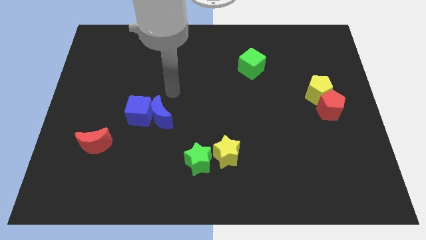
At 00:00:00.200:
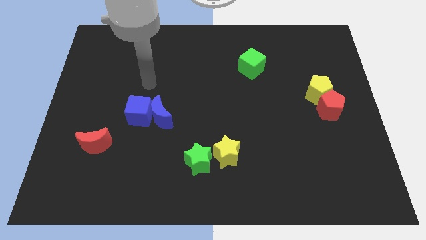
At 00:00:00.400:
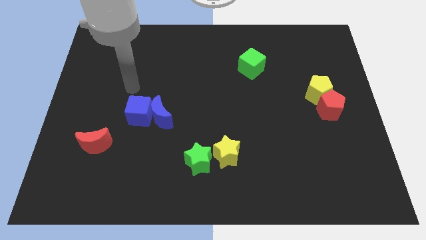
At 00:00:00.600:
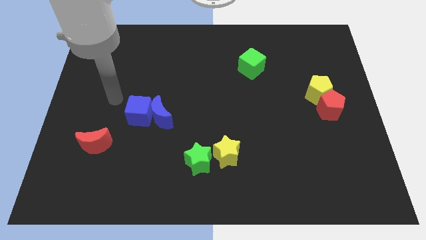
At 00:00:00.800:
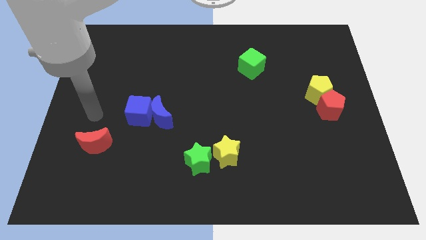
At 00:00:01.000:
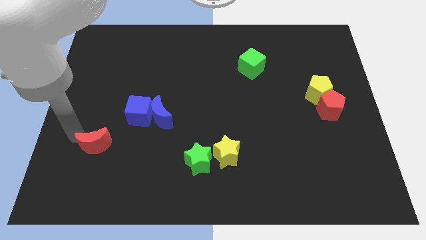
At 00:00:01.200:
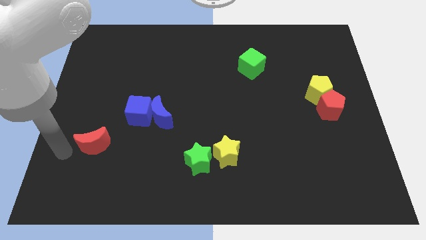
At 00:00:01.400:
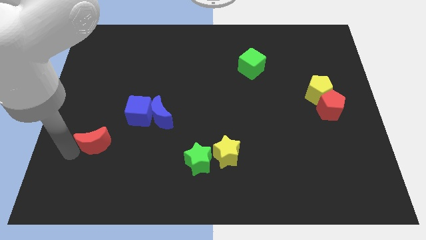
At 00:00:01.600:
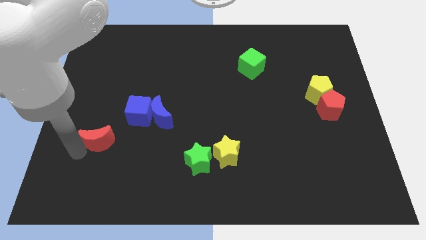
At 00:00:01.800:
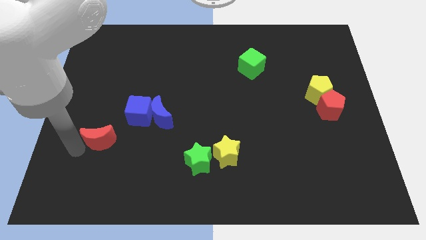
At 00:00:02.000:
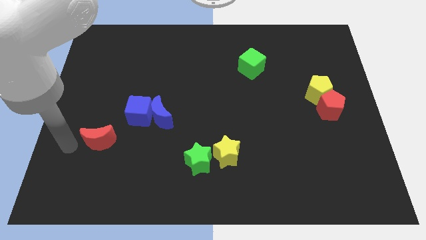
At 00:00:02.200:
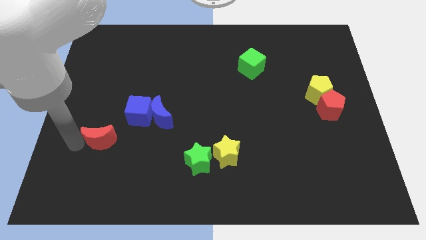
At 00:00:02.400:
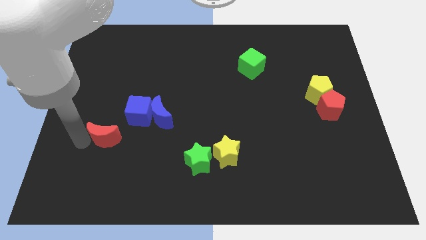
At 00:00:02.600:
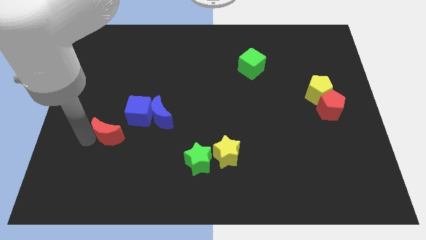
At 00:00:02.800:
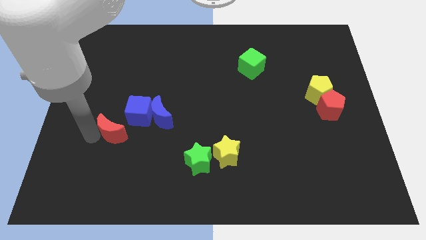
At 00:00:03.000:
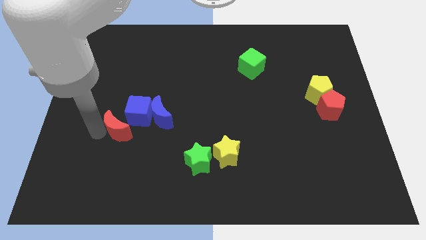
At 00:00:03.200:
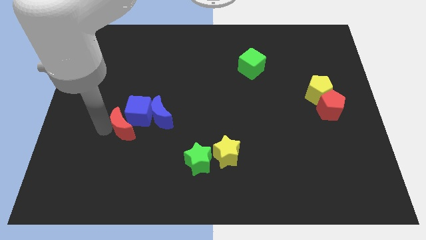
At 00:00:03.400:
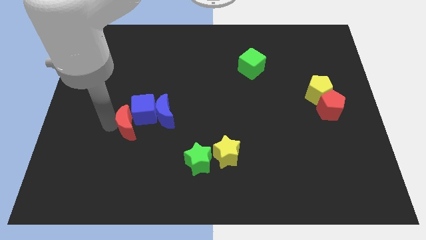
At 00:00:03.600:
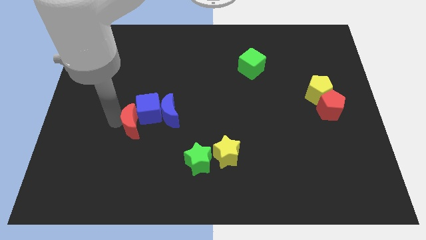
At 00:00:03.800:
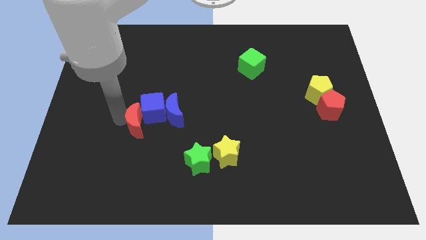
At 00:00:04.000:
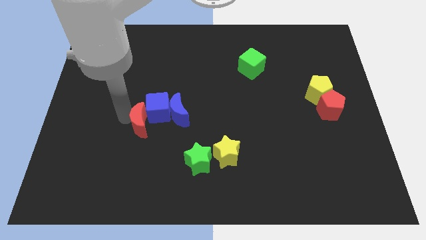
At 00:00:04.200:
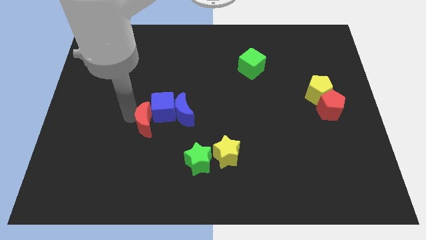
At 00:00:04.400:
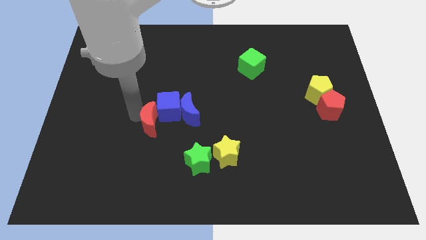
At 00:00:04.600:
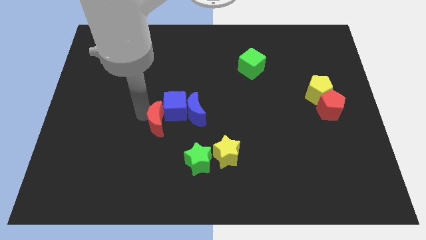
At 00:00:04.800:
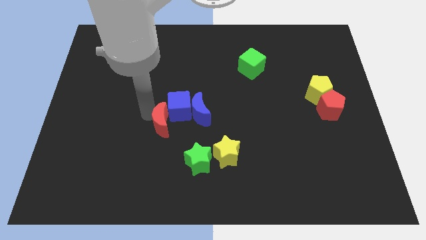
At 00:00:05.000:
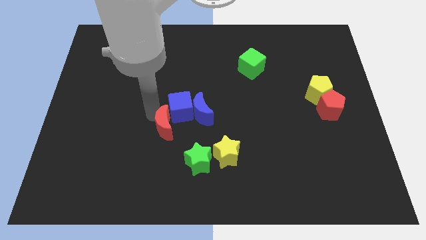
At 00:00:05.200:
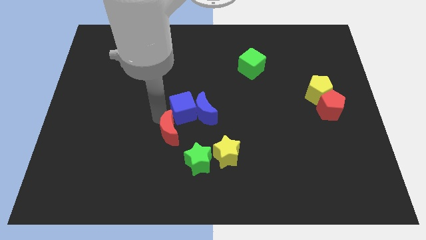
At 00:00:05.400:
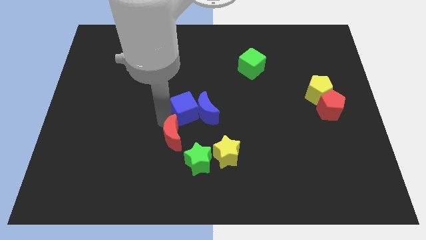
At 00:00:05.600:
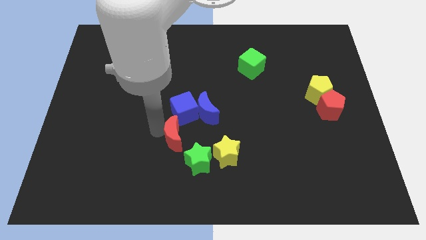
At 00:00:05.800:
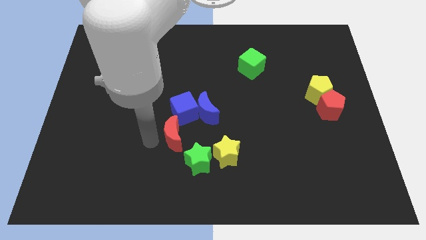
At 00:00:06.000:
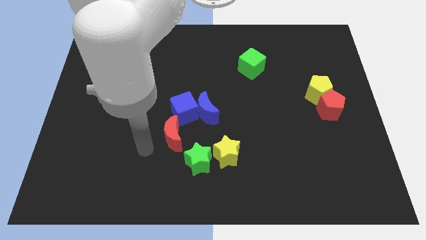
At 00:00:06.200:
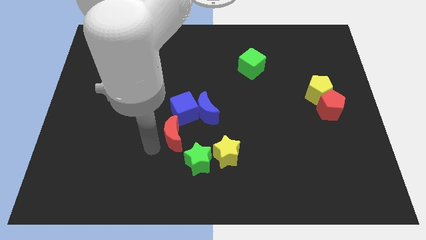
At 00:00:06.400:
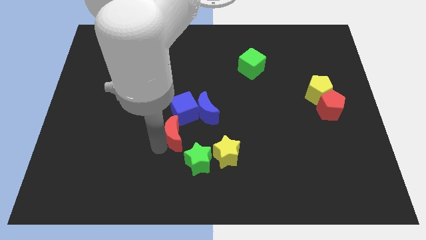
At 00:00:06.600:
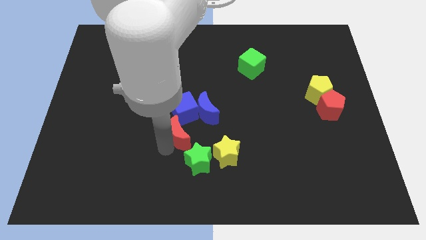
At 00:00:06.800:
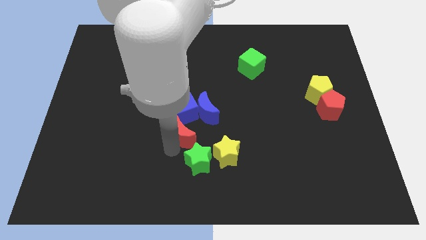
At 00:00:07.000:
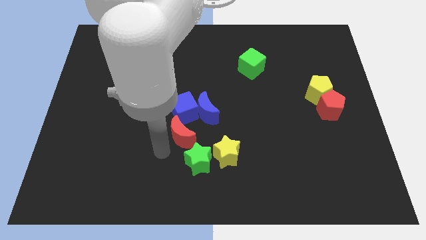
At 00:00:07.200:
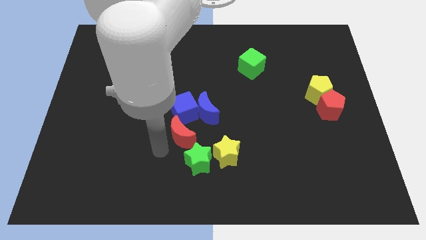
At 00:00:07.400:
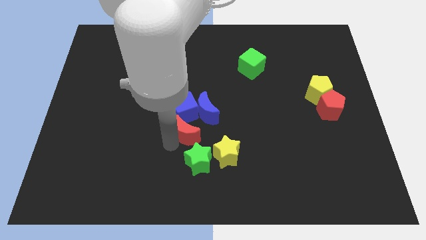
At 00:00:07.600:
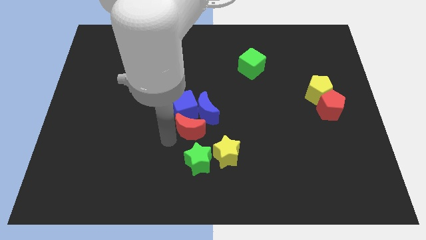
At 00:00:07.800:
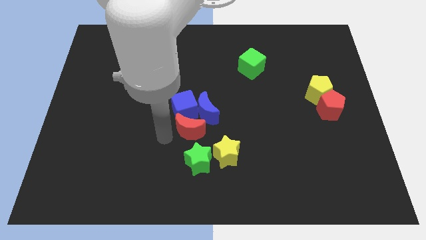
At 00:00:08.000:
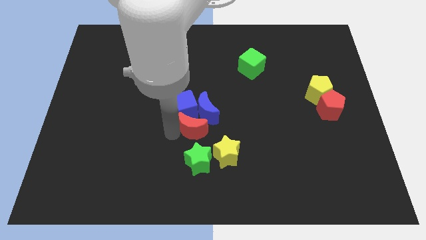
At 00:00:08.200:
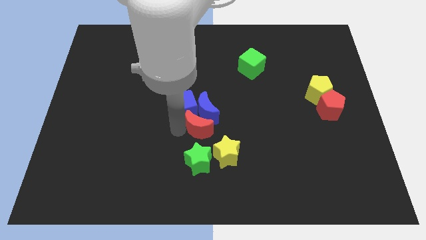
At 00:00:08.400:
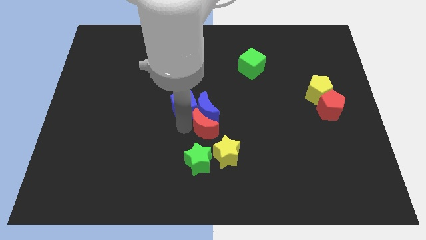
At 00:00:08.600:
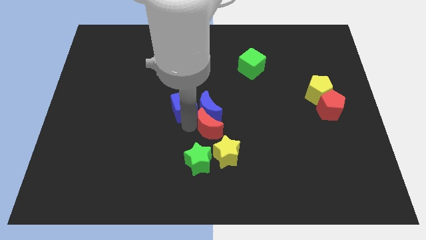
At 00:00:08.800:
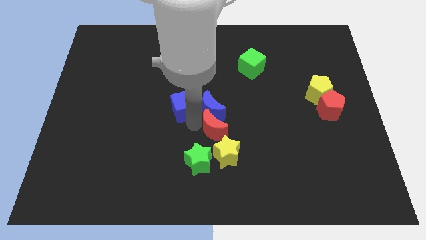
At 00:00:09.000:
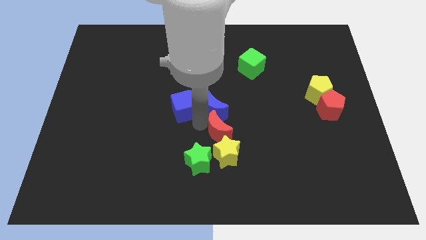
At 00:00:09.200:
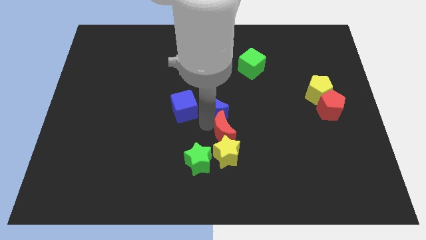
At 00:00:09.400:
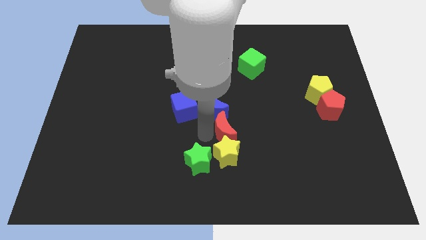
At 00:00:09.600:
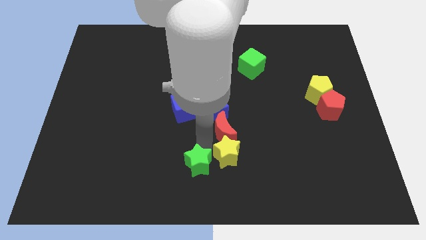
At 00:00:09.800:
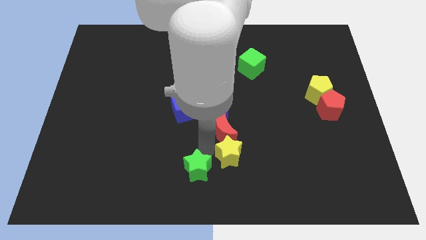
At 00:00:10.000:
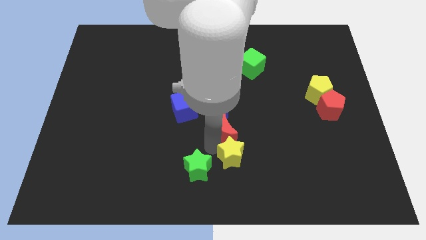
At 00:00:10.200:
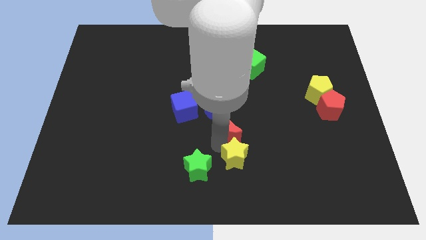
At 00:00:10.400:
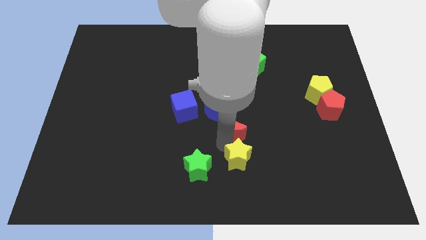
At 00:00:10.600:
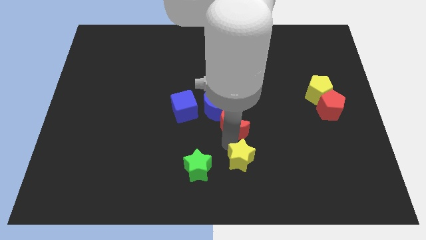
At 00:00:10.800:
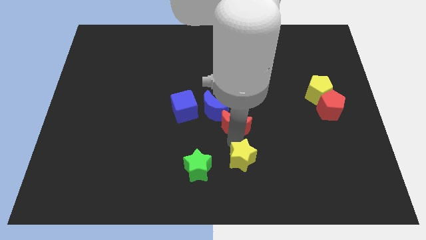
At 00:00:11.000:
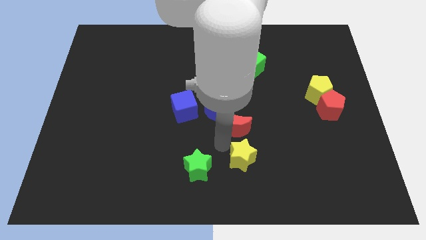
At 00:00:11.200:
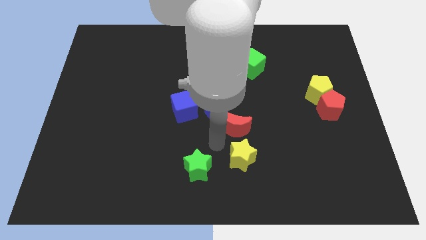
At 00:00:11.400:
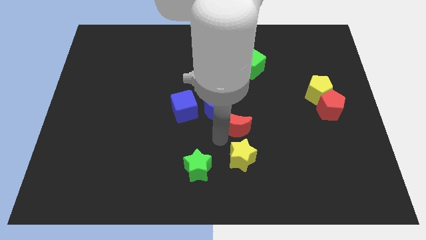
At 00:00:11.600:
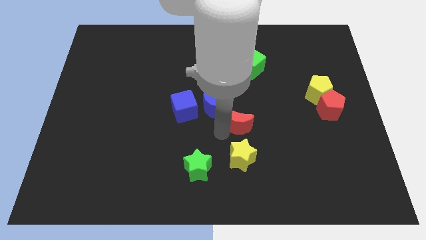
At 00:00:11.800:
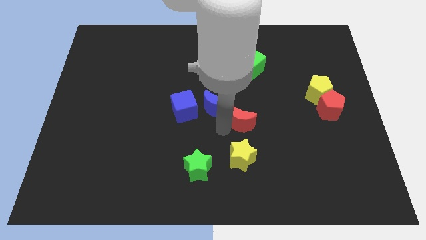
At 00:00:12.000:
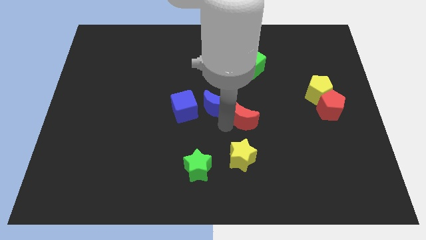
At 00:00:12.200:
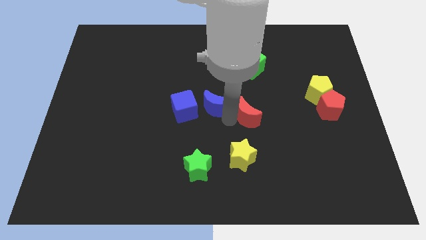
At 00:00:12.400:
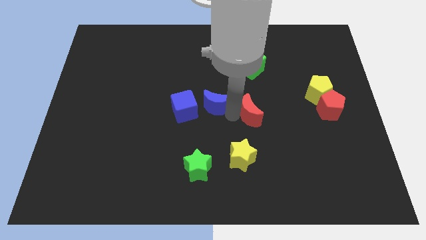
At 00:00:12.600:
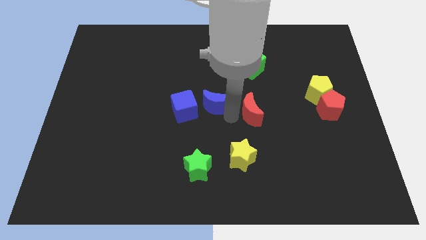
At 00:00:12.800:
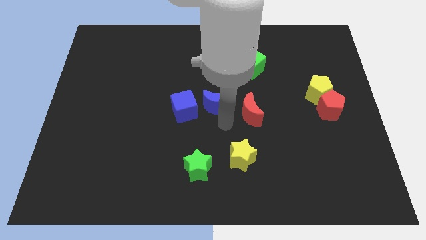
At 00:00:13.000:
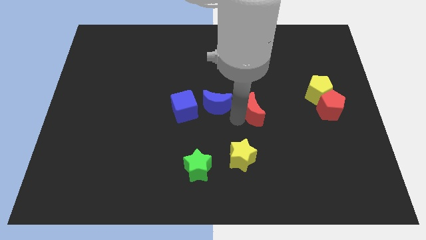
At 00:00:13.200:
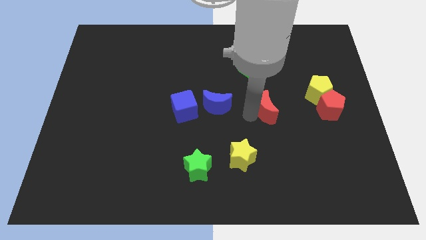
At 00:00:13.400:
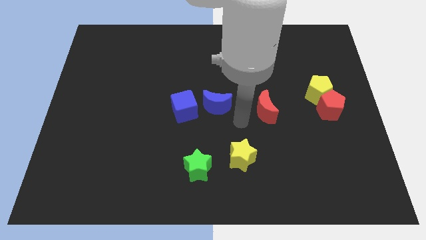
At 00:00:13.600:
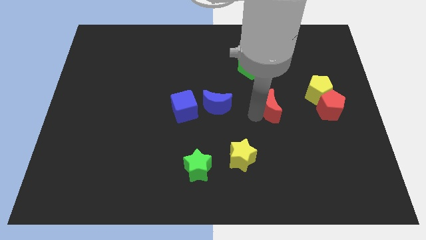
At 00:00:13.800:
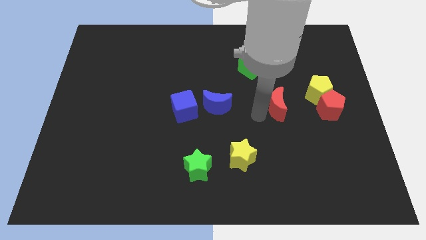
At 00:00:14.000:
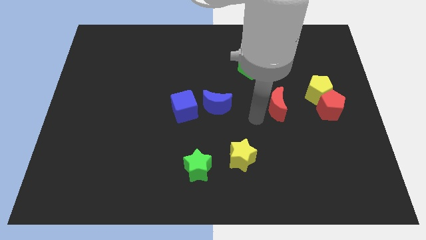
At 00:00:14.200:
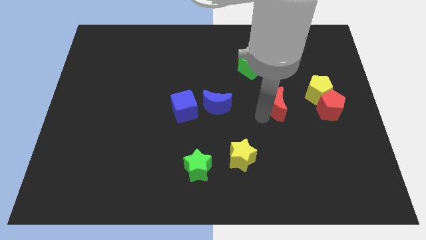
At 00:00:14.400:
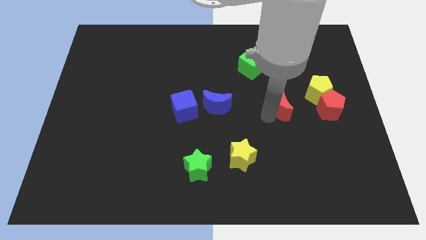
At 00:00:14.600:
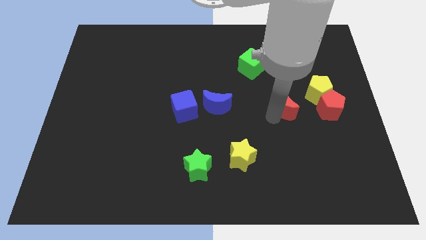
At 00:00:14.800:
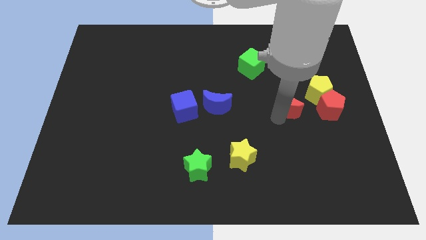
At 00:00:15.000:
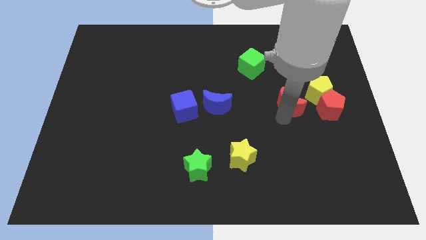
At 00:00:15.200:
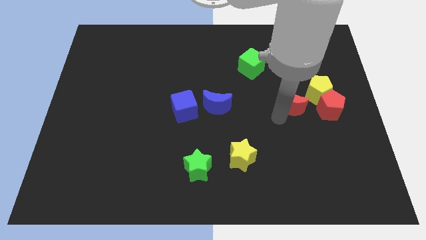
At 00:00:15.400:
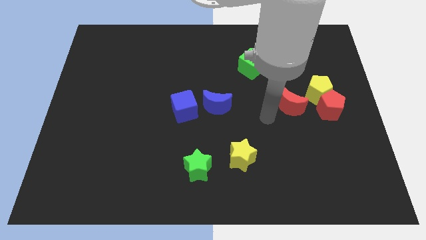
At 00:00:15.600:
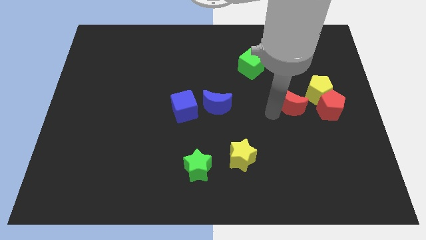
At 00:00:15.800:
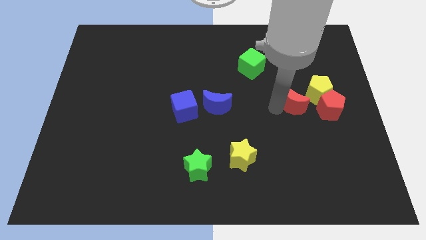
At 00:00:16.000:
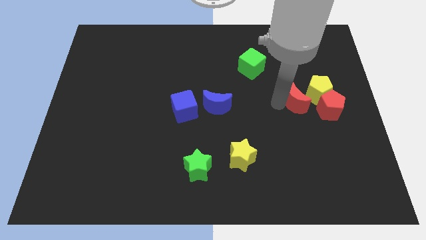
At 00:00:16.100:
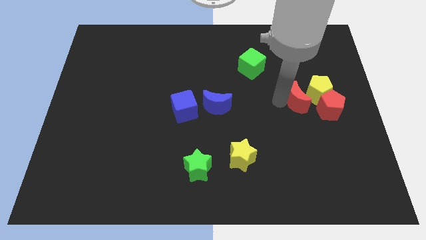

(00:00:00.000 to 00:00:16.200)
move the red moon to the yellow pentagon
